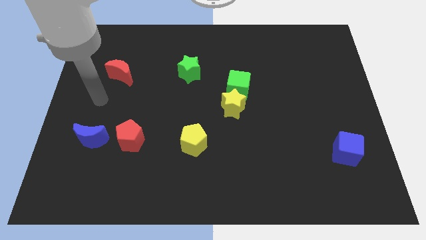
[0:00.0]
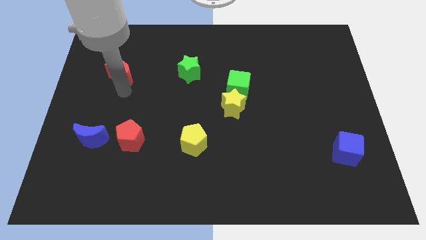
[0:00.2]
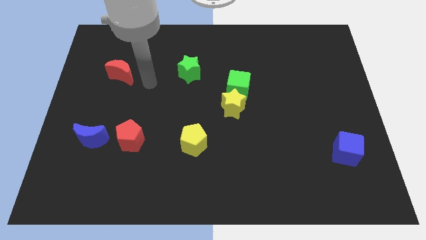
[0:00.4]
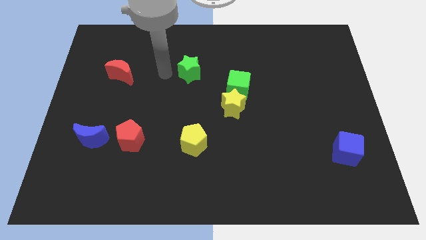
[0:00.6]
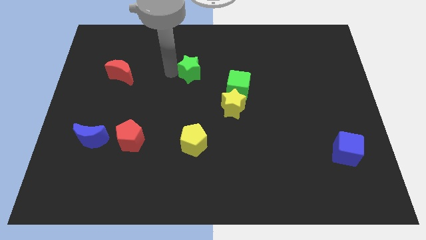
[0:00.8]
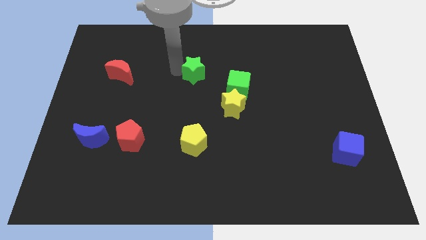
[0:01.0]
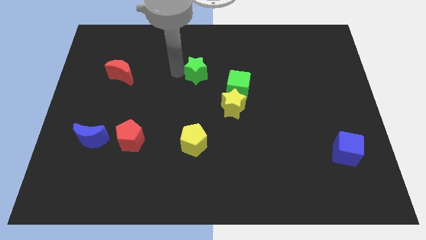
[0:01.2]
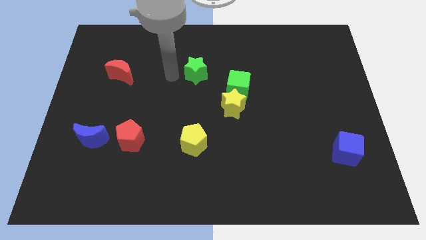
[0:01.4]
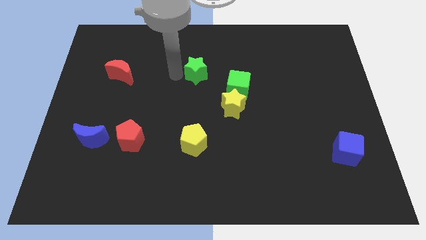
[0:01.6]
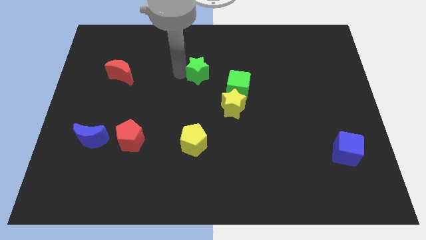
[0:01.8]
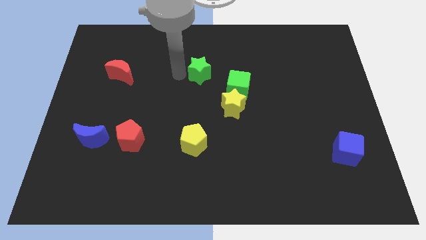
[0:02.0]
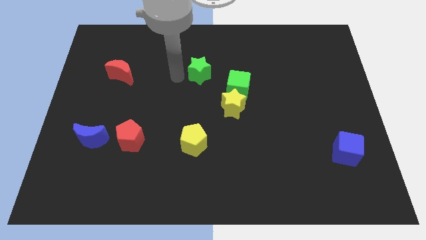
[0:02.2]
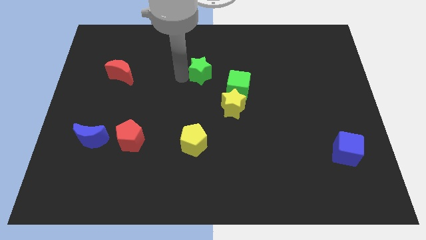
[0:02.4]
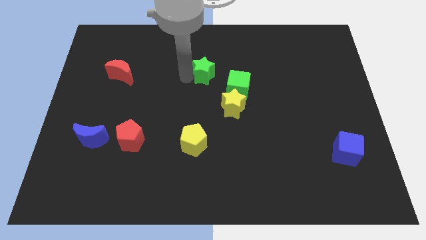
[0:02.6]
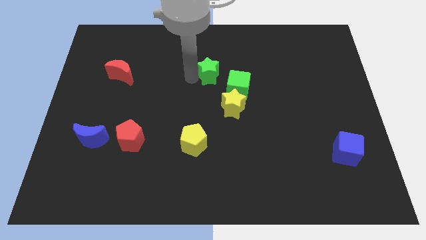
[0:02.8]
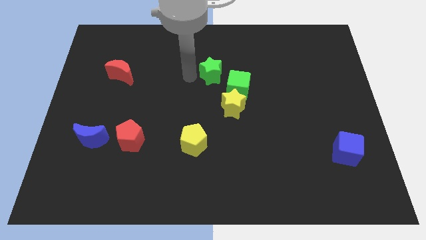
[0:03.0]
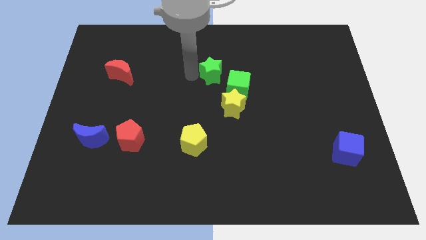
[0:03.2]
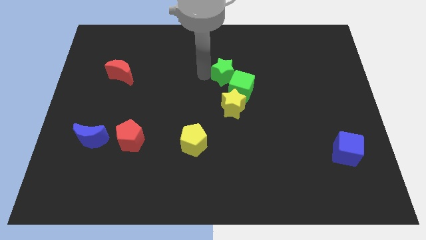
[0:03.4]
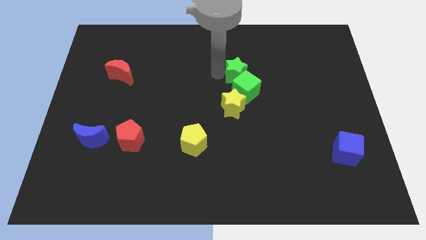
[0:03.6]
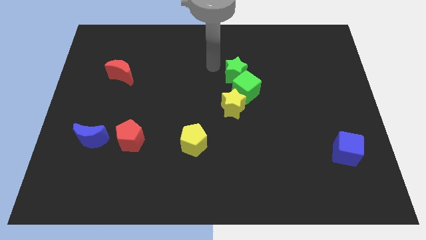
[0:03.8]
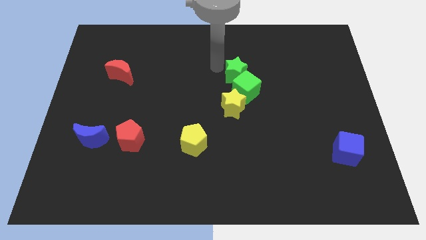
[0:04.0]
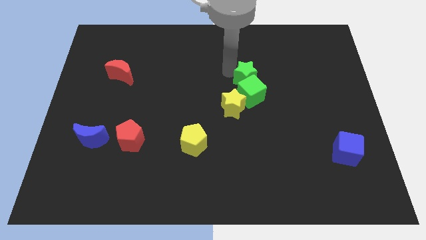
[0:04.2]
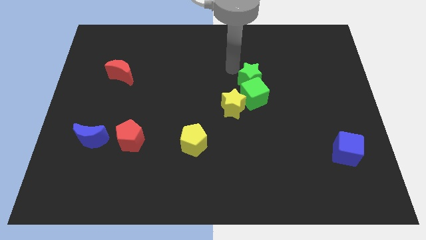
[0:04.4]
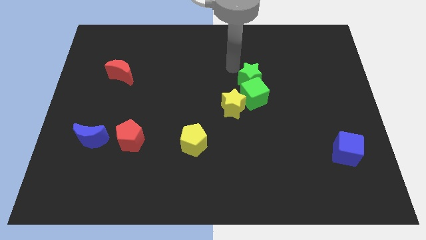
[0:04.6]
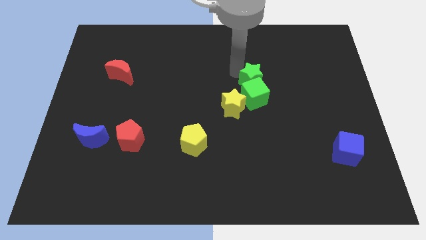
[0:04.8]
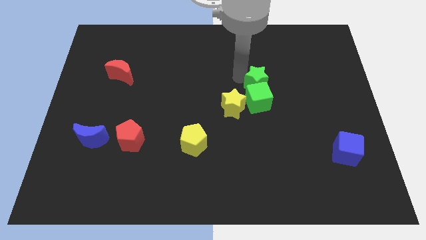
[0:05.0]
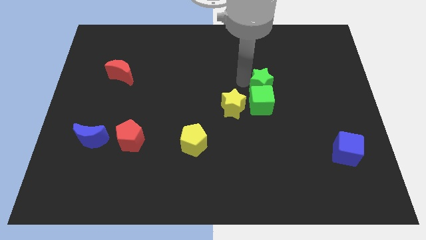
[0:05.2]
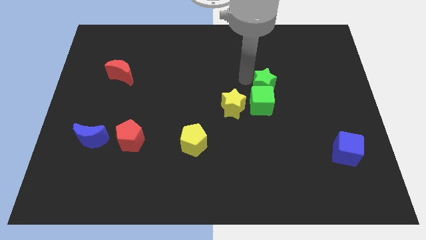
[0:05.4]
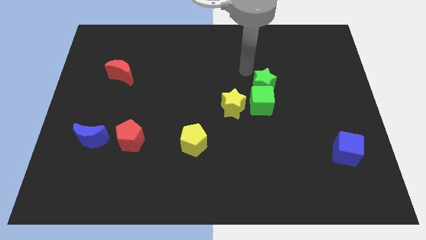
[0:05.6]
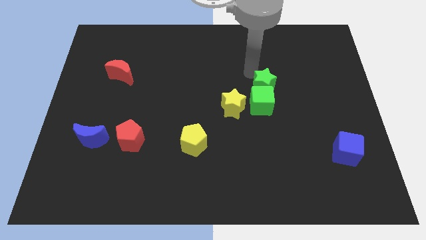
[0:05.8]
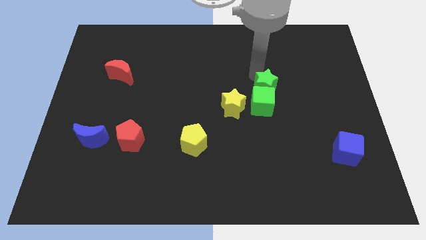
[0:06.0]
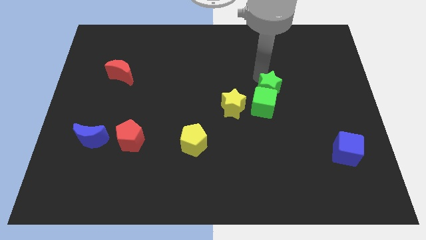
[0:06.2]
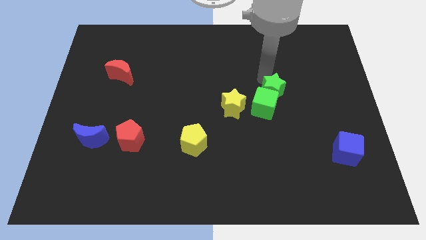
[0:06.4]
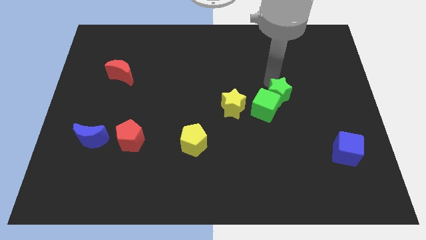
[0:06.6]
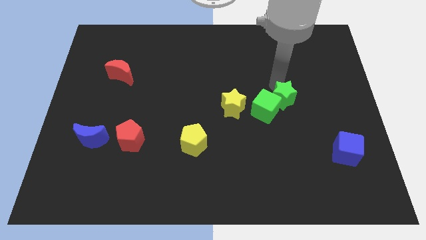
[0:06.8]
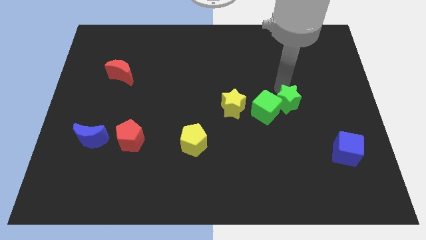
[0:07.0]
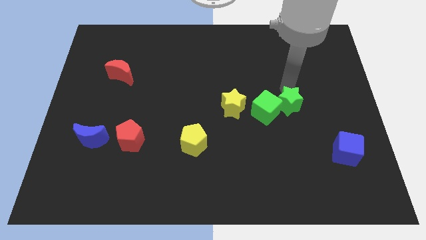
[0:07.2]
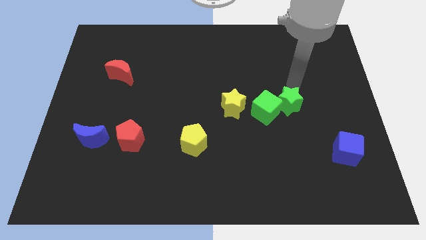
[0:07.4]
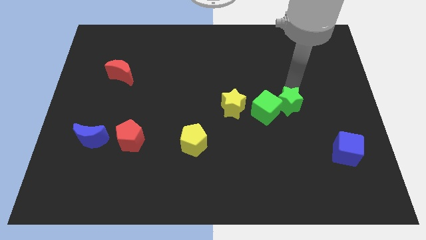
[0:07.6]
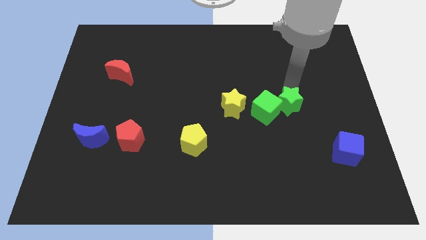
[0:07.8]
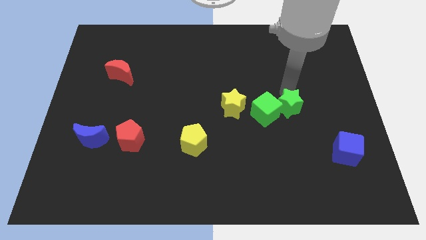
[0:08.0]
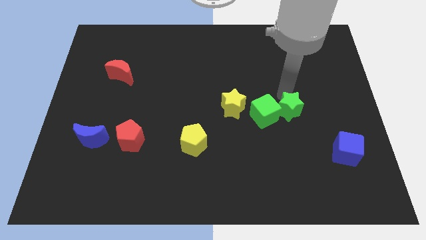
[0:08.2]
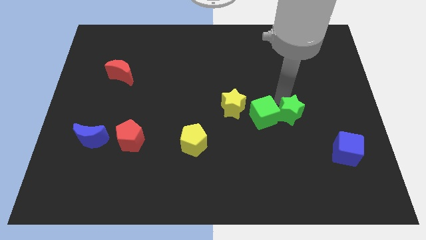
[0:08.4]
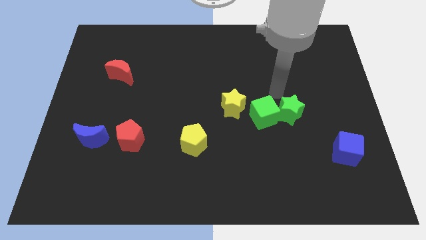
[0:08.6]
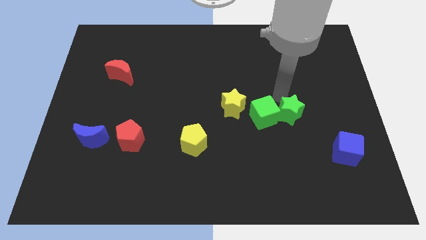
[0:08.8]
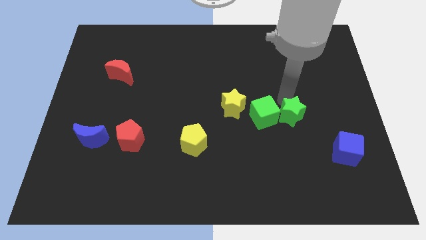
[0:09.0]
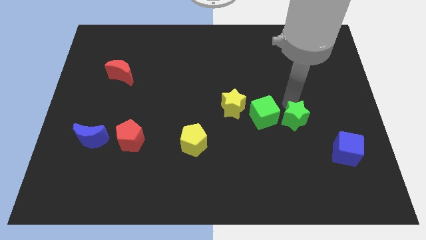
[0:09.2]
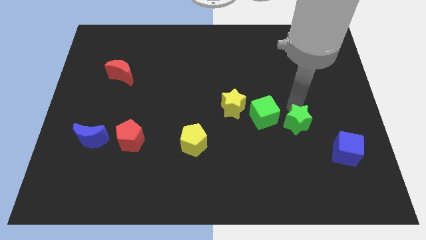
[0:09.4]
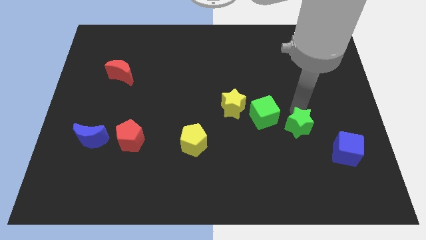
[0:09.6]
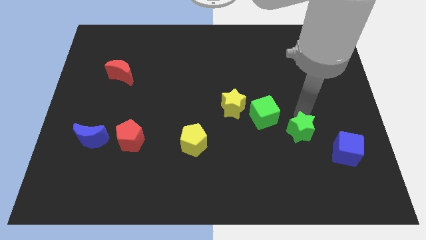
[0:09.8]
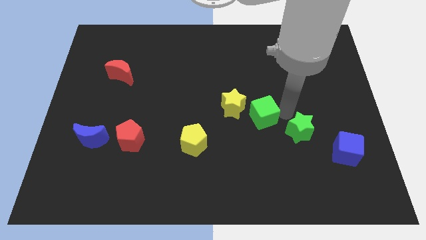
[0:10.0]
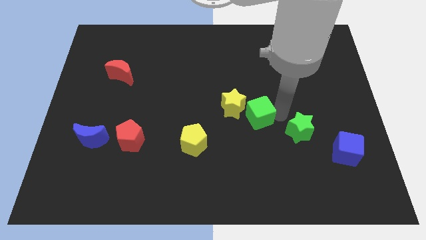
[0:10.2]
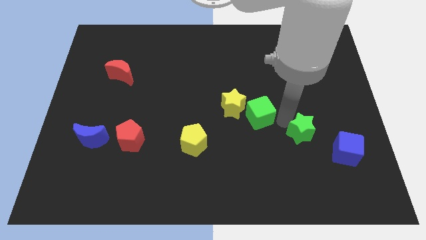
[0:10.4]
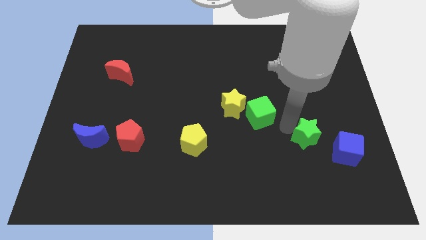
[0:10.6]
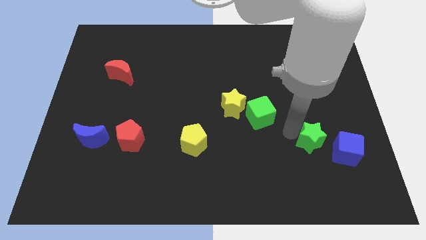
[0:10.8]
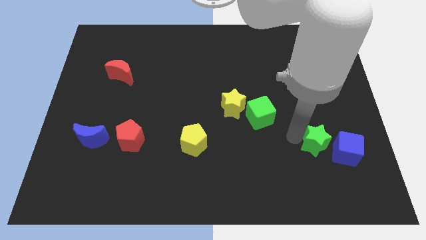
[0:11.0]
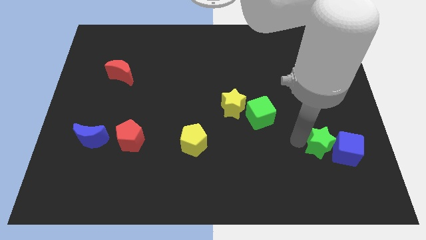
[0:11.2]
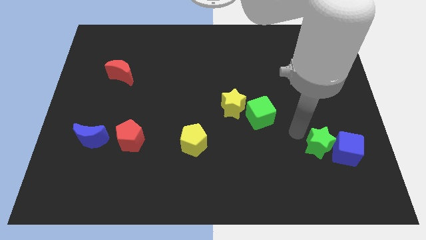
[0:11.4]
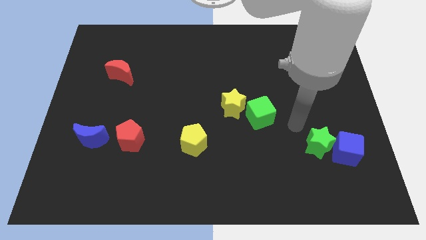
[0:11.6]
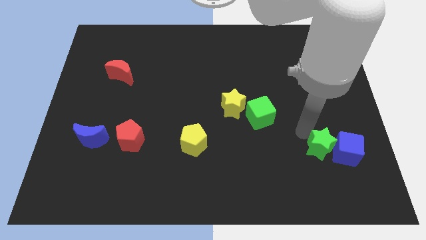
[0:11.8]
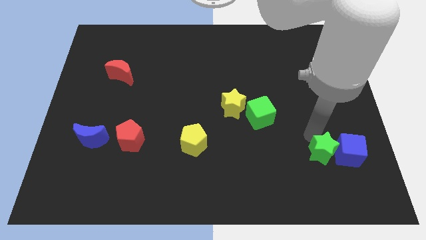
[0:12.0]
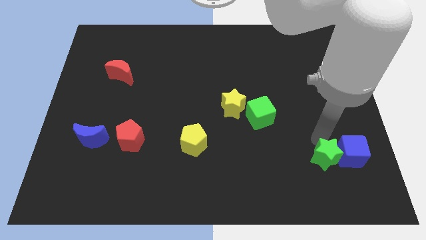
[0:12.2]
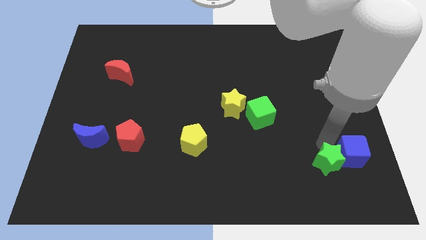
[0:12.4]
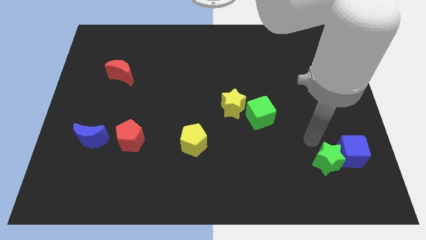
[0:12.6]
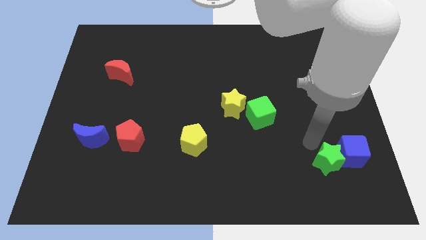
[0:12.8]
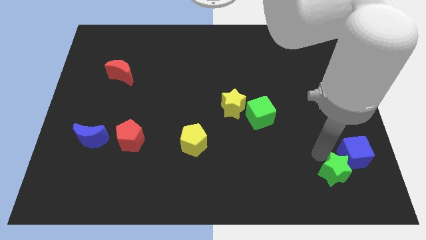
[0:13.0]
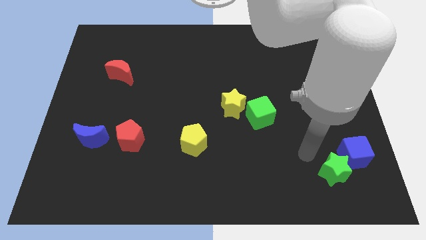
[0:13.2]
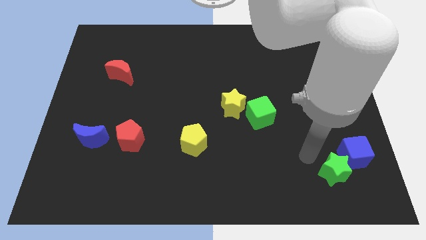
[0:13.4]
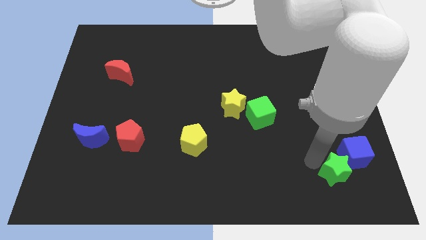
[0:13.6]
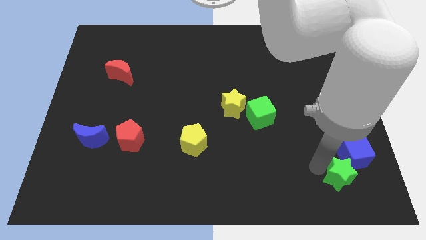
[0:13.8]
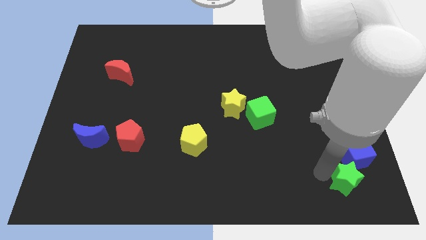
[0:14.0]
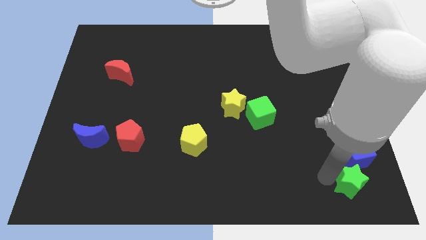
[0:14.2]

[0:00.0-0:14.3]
move the green star to the bottom right corner
